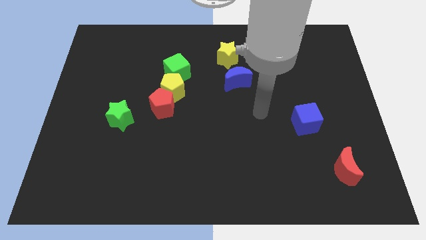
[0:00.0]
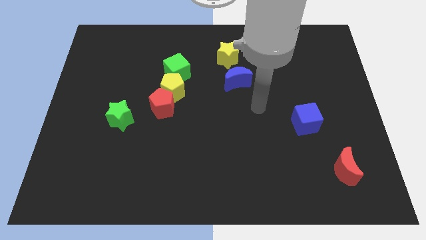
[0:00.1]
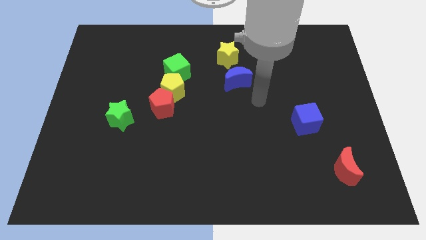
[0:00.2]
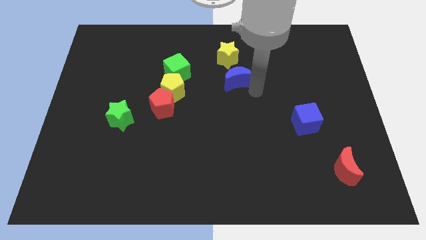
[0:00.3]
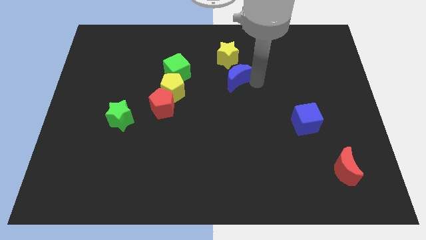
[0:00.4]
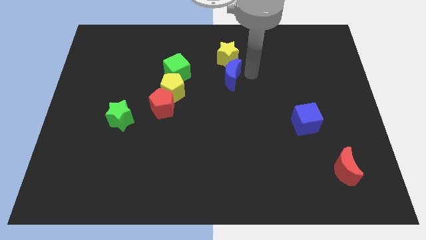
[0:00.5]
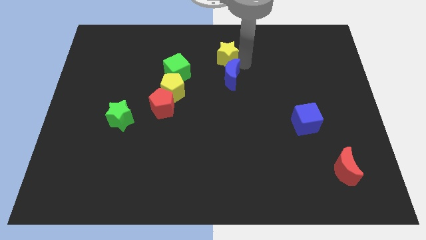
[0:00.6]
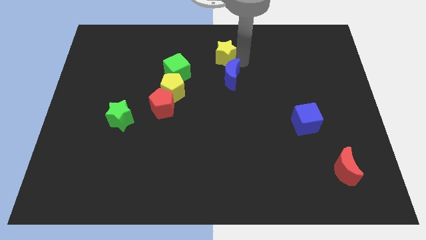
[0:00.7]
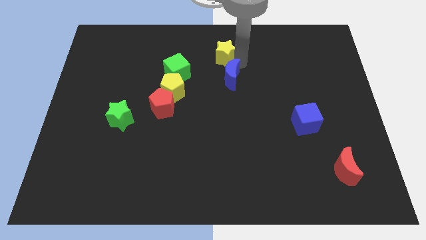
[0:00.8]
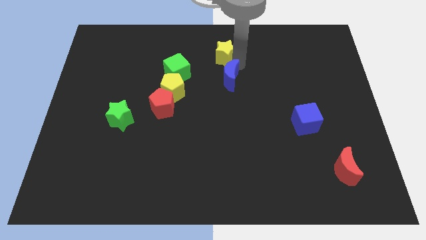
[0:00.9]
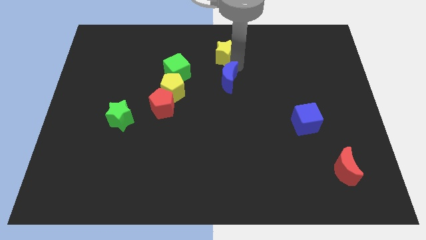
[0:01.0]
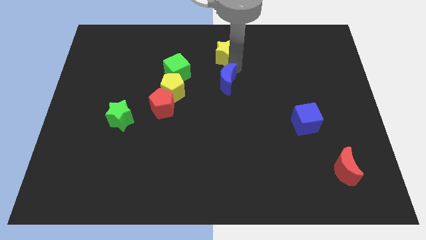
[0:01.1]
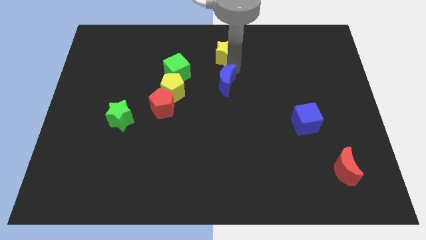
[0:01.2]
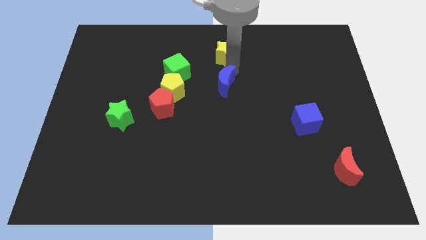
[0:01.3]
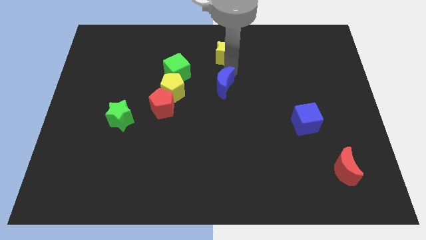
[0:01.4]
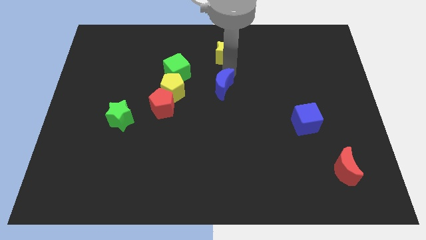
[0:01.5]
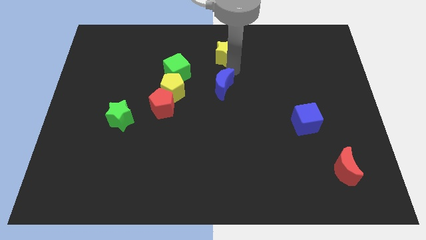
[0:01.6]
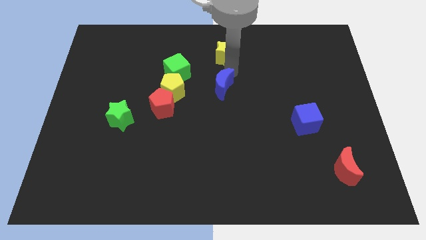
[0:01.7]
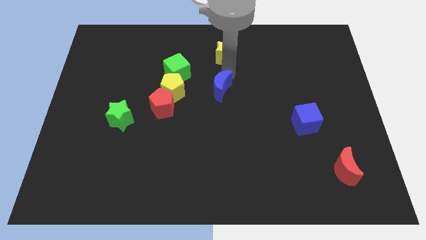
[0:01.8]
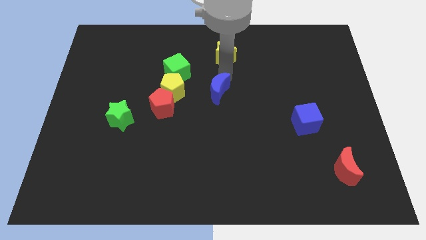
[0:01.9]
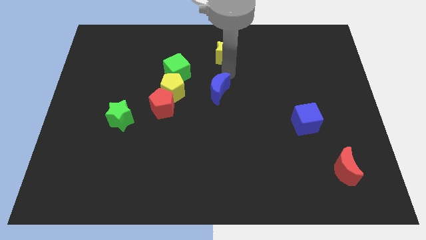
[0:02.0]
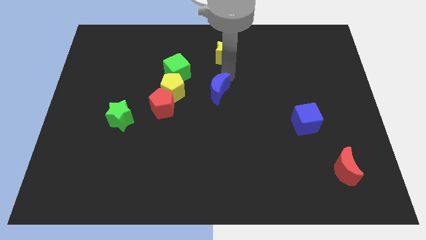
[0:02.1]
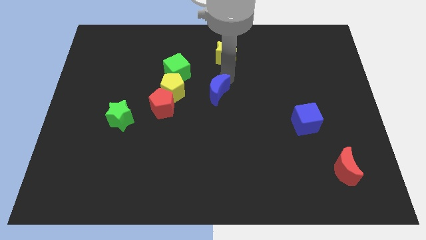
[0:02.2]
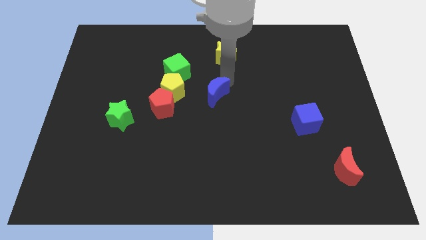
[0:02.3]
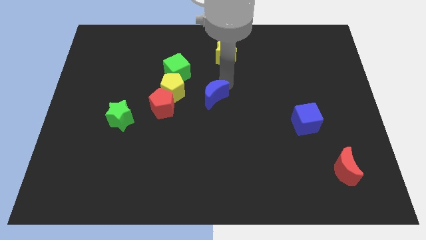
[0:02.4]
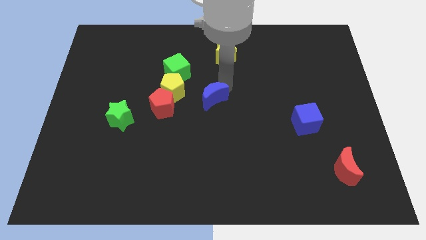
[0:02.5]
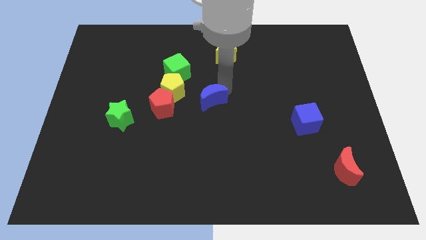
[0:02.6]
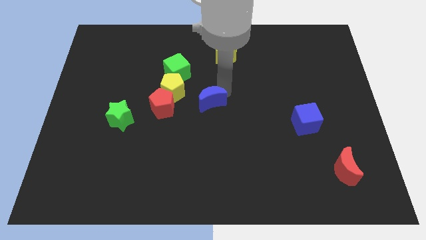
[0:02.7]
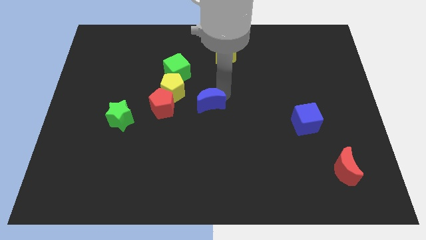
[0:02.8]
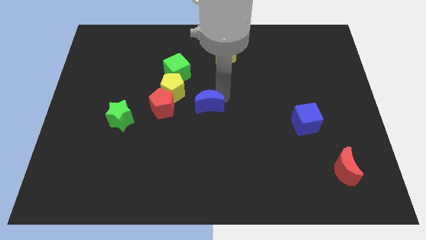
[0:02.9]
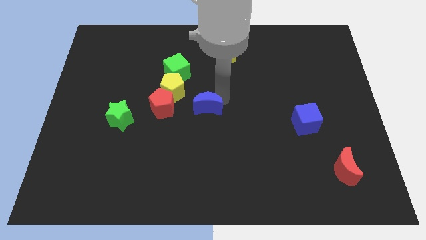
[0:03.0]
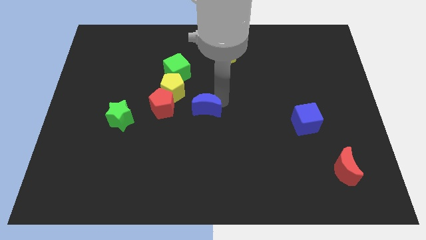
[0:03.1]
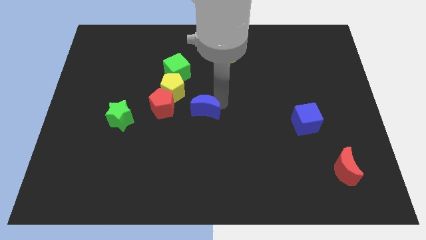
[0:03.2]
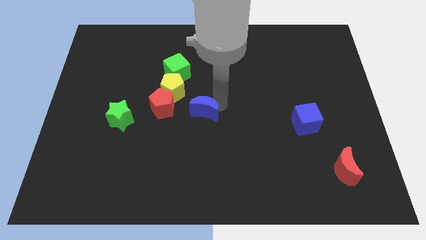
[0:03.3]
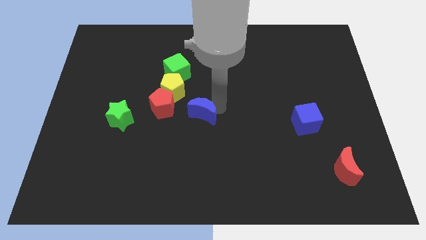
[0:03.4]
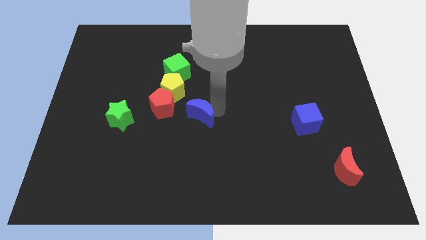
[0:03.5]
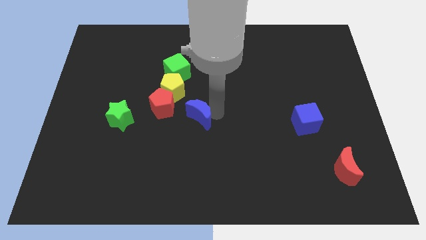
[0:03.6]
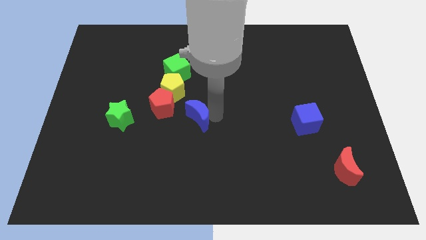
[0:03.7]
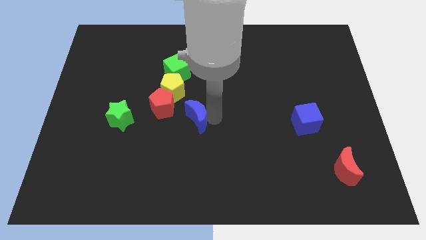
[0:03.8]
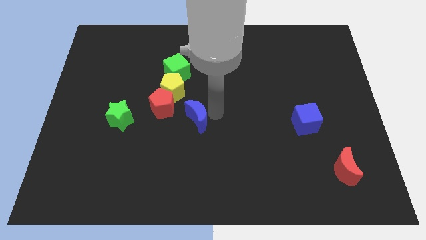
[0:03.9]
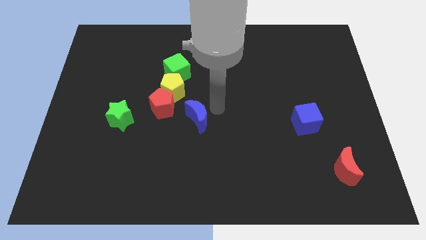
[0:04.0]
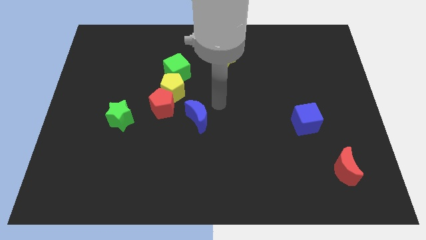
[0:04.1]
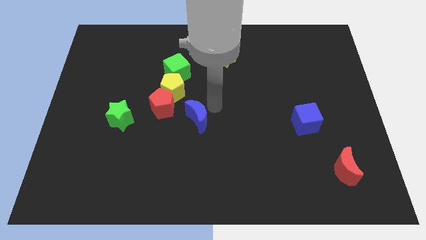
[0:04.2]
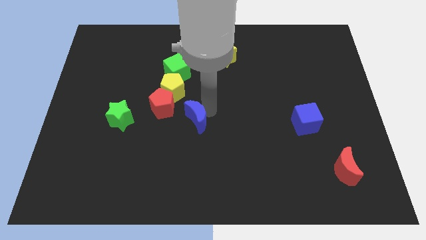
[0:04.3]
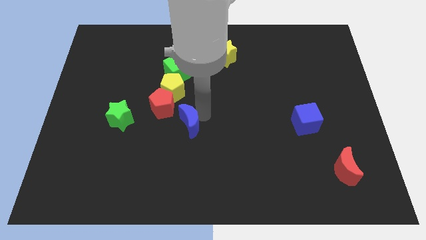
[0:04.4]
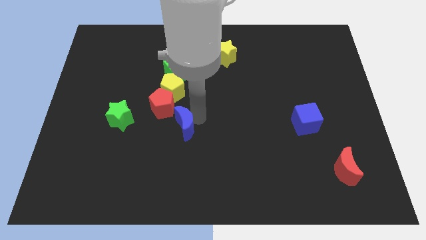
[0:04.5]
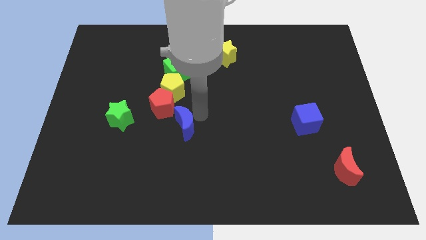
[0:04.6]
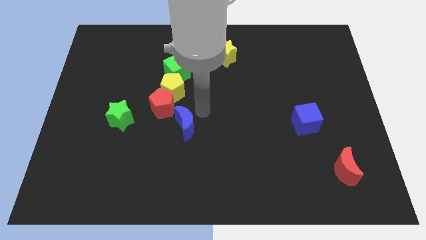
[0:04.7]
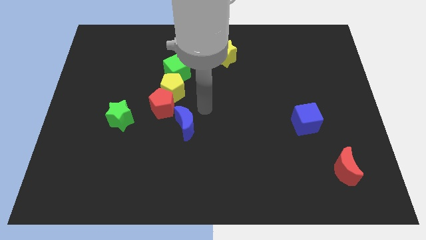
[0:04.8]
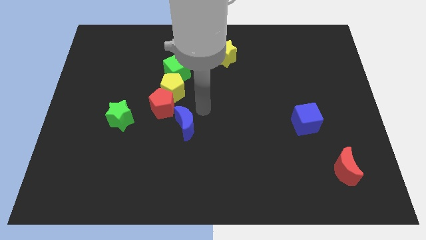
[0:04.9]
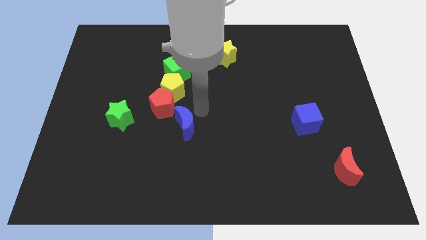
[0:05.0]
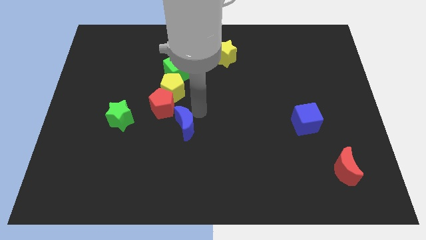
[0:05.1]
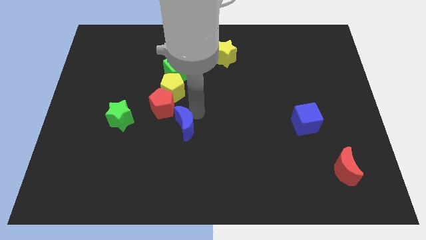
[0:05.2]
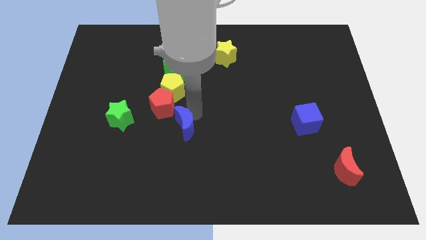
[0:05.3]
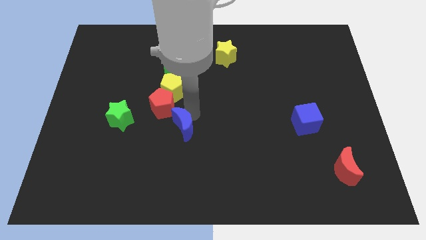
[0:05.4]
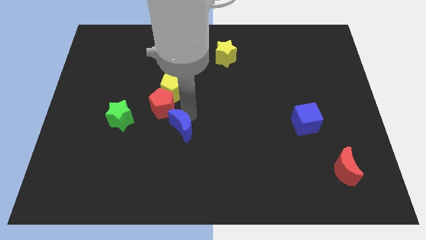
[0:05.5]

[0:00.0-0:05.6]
push the blue moon to the bottom side of the red pentagon

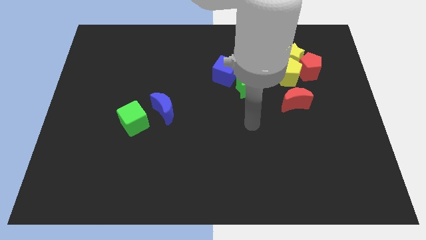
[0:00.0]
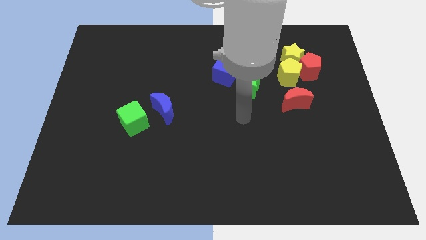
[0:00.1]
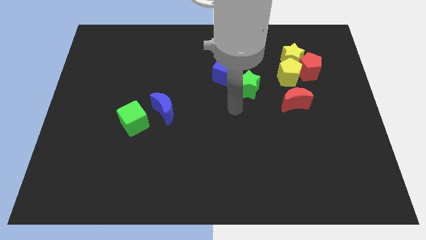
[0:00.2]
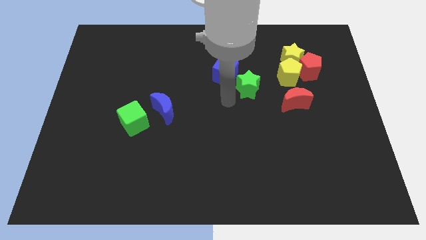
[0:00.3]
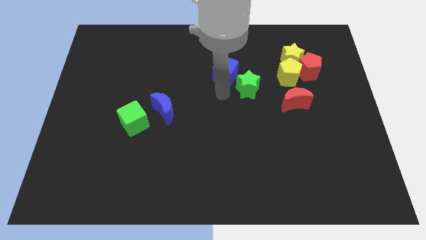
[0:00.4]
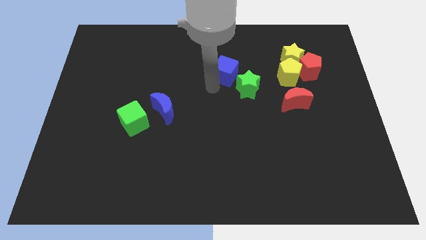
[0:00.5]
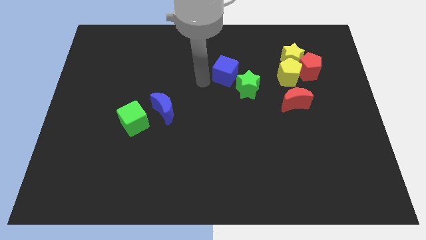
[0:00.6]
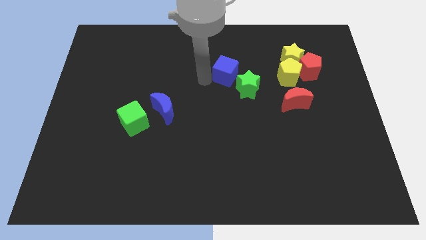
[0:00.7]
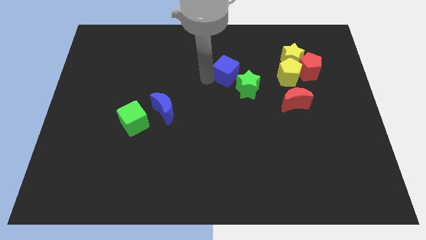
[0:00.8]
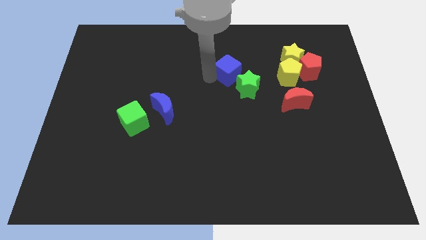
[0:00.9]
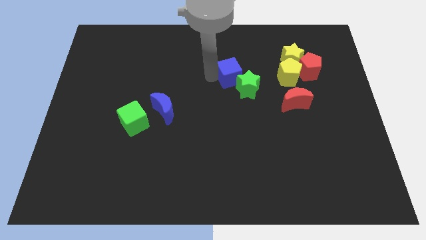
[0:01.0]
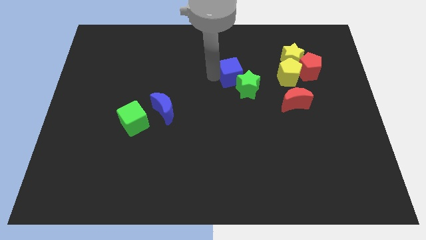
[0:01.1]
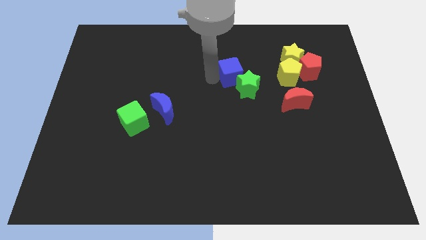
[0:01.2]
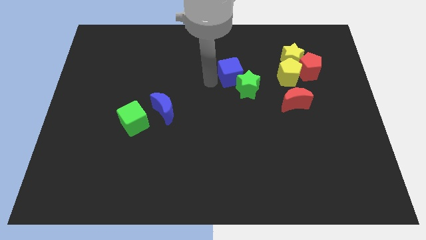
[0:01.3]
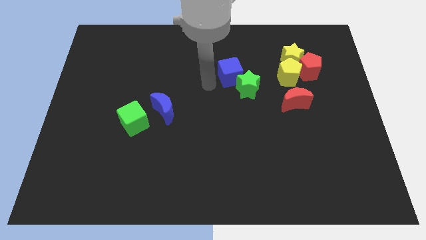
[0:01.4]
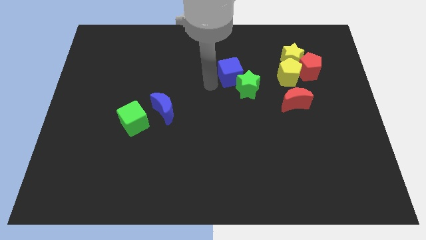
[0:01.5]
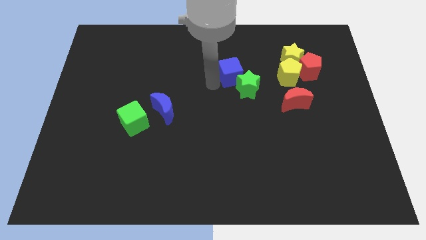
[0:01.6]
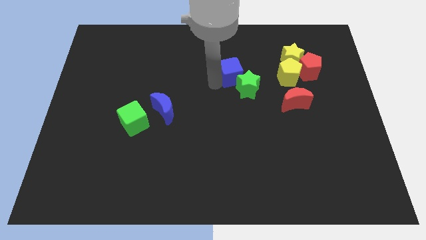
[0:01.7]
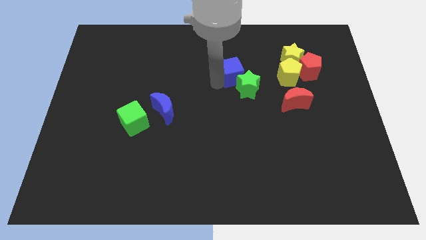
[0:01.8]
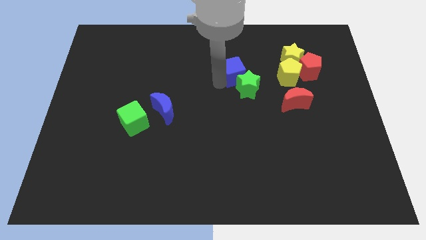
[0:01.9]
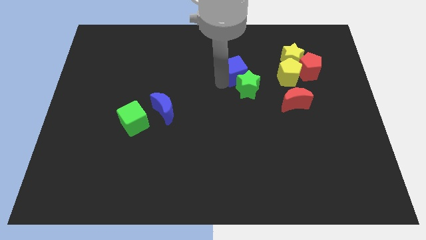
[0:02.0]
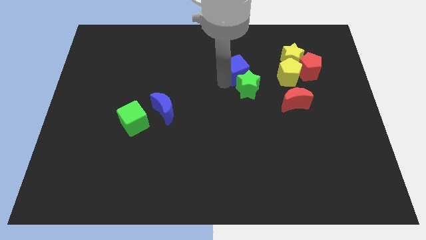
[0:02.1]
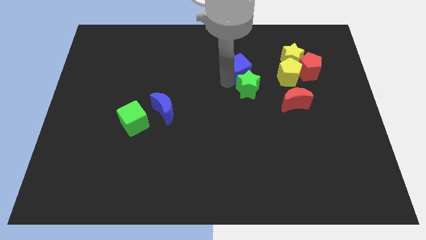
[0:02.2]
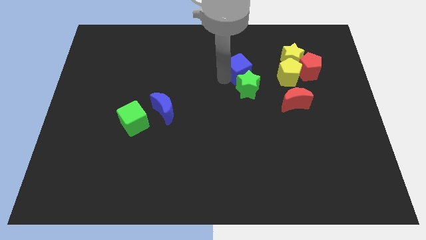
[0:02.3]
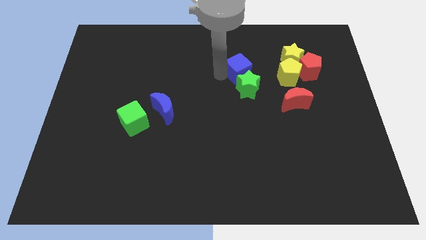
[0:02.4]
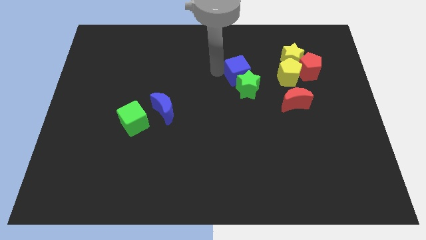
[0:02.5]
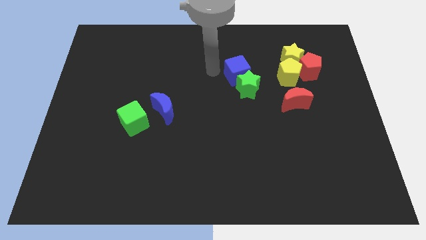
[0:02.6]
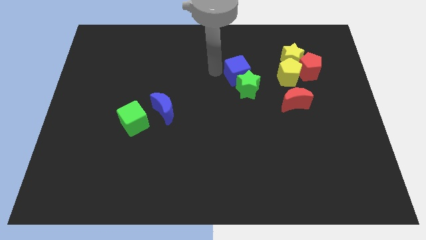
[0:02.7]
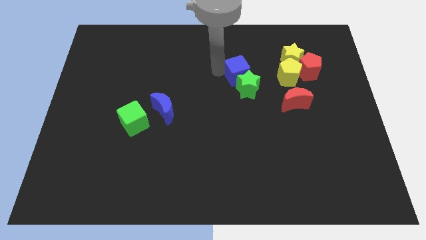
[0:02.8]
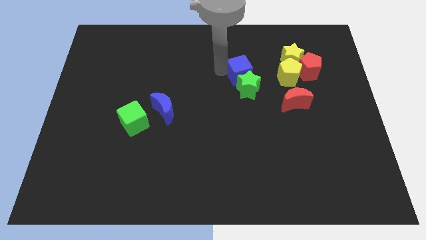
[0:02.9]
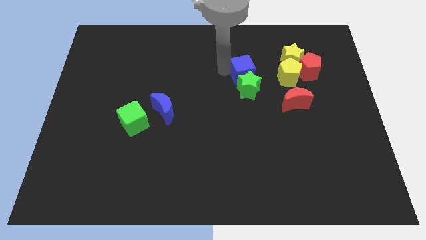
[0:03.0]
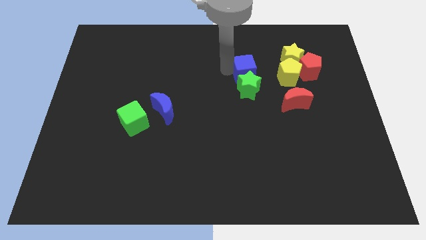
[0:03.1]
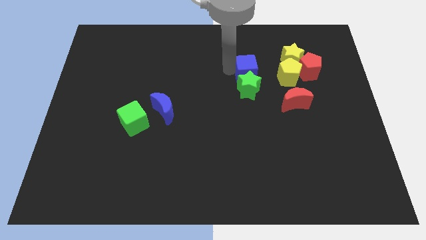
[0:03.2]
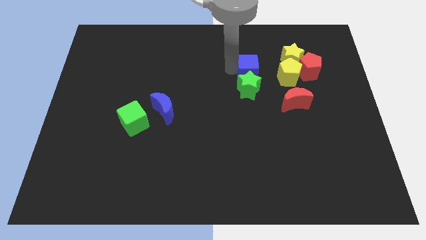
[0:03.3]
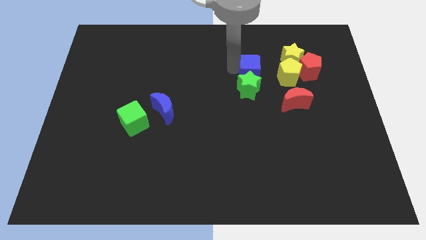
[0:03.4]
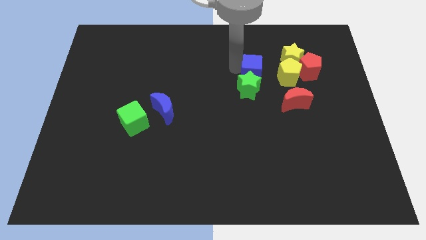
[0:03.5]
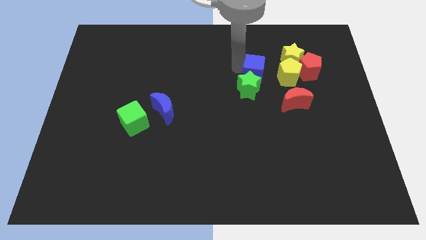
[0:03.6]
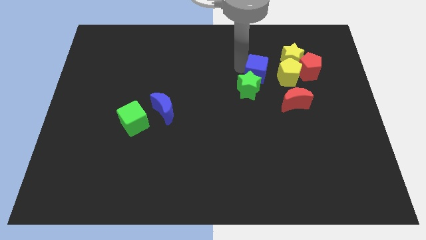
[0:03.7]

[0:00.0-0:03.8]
move the blue cube to the top left of the red moon
